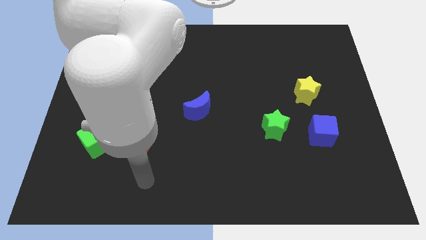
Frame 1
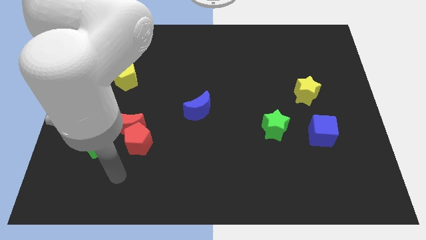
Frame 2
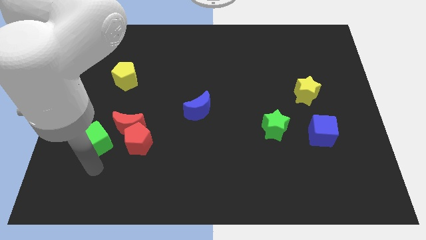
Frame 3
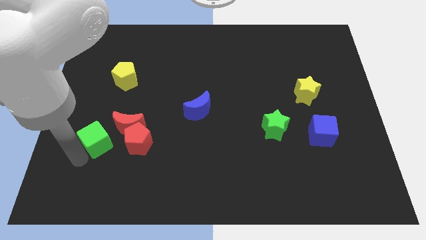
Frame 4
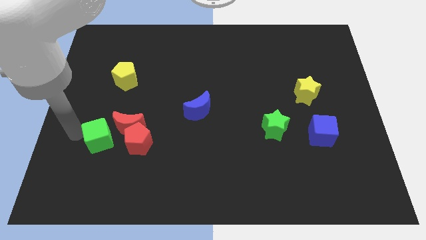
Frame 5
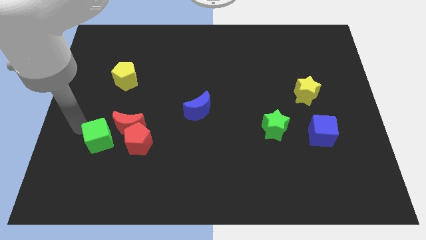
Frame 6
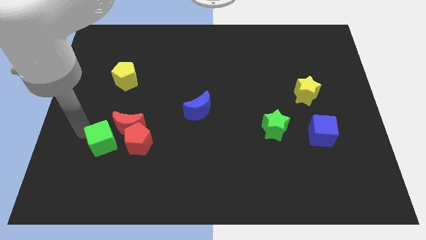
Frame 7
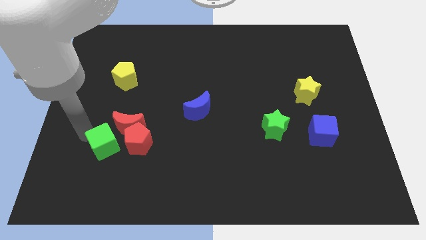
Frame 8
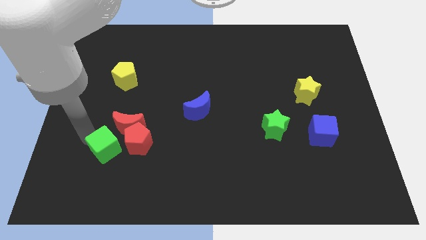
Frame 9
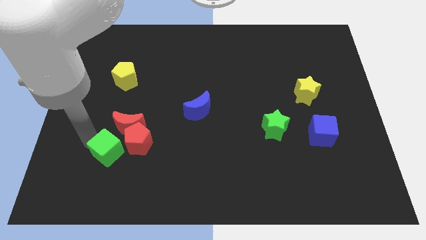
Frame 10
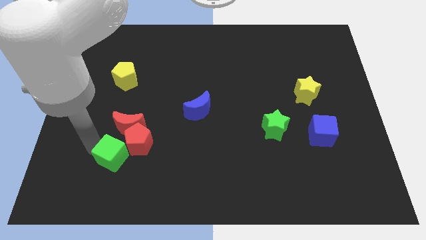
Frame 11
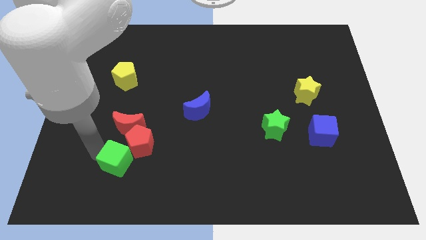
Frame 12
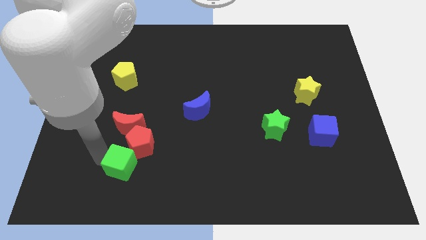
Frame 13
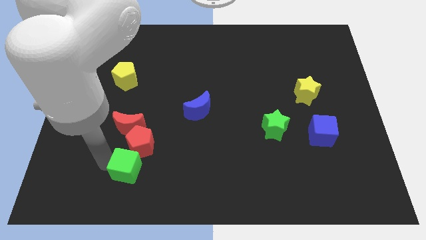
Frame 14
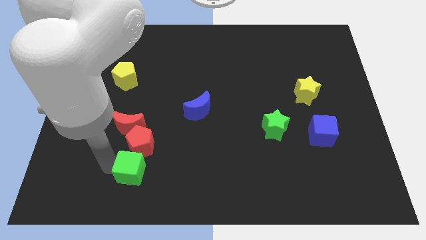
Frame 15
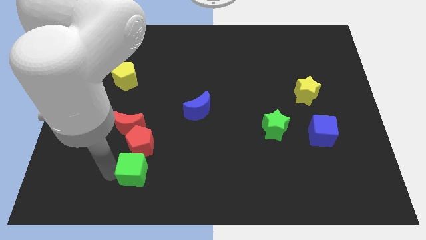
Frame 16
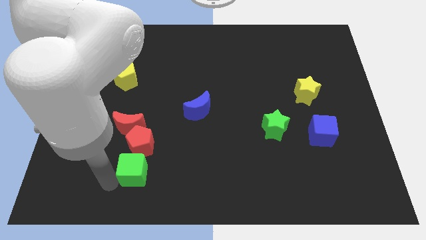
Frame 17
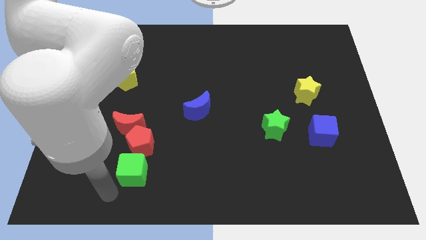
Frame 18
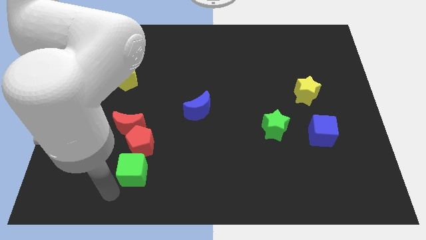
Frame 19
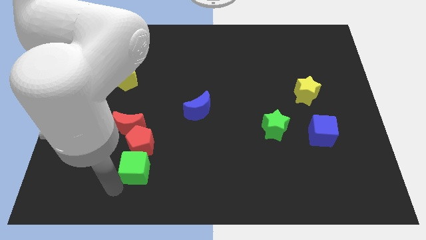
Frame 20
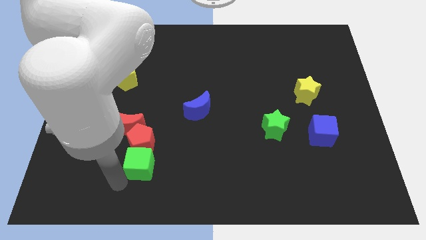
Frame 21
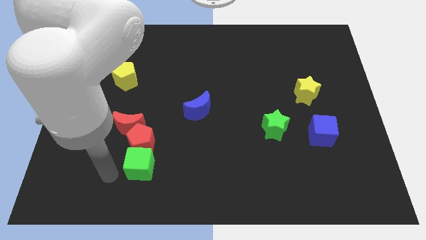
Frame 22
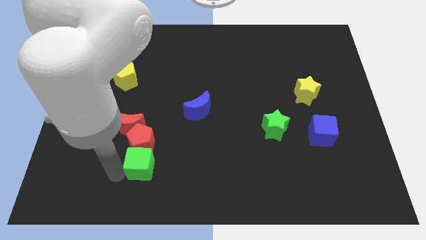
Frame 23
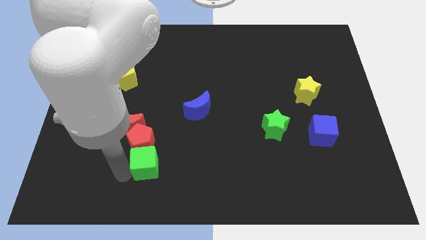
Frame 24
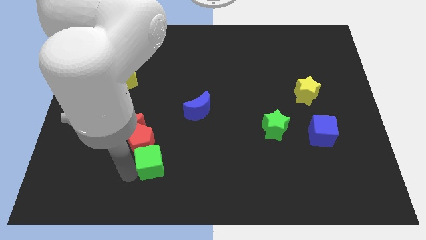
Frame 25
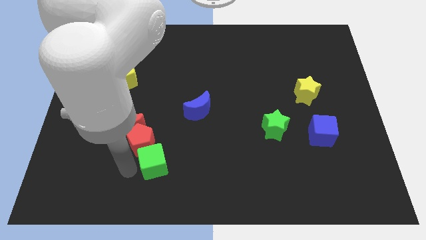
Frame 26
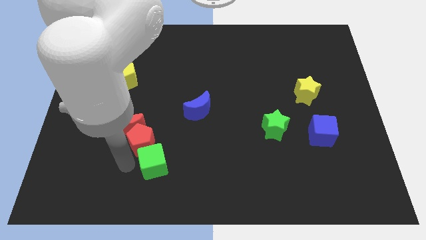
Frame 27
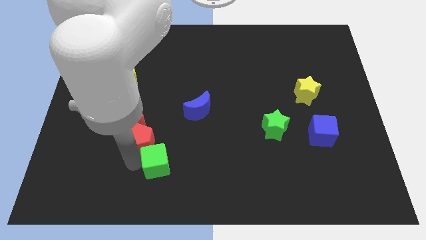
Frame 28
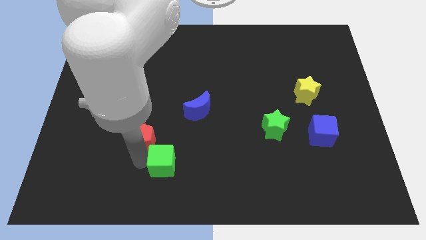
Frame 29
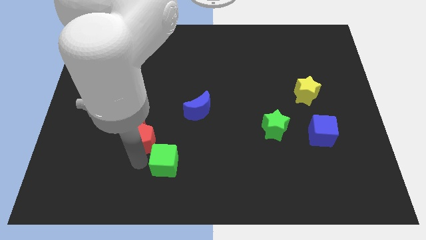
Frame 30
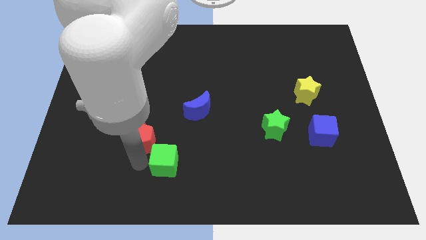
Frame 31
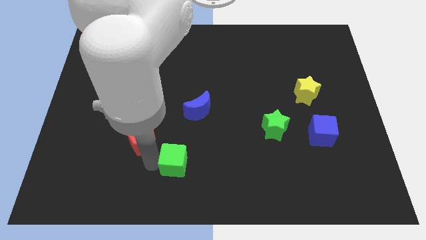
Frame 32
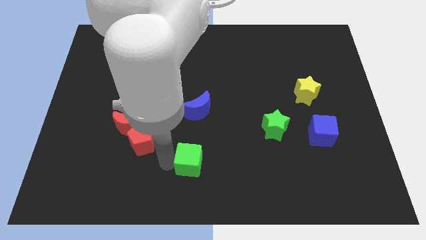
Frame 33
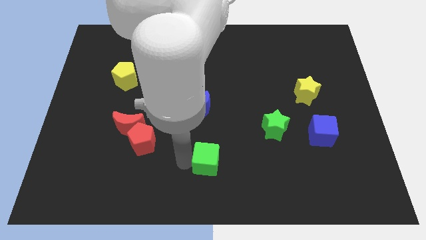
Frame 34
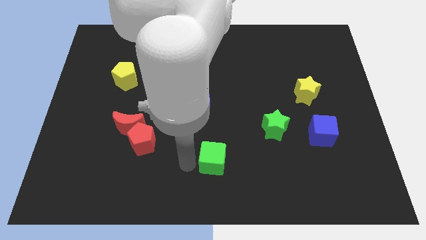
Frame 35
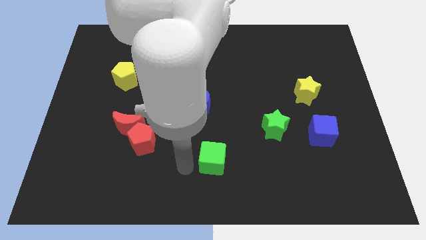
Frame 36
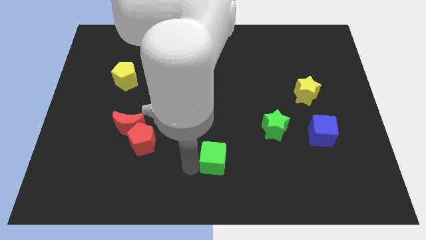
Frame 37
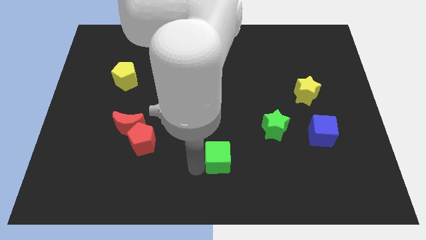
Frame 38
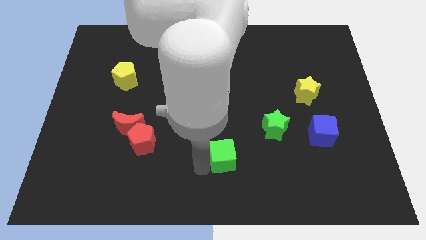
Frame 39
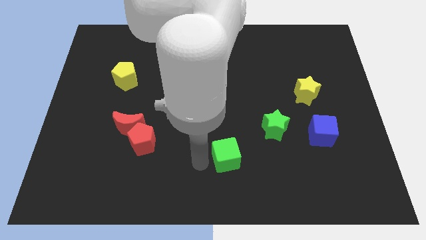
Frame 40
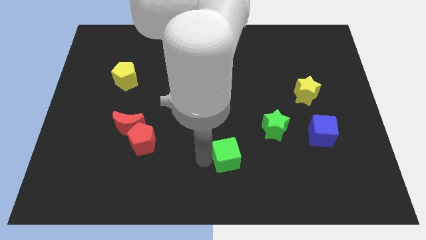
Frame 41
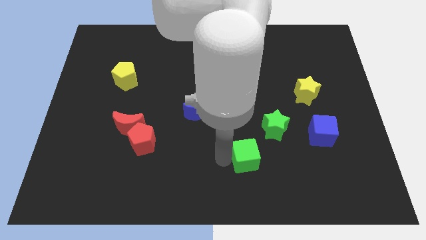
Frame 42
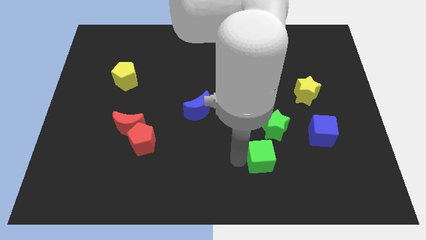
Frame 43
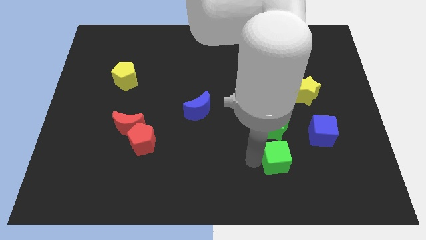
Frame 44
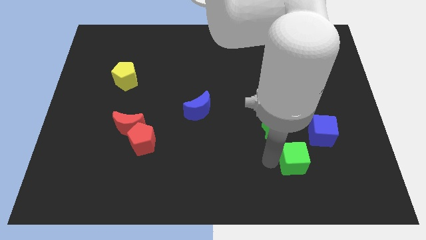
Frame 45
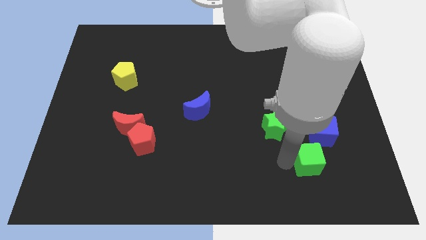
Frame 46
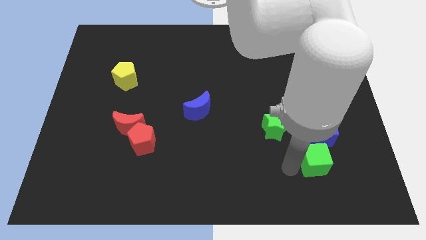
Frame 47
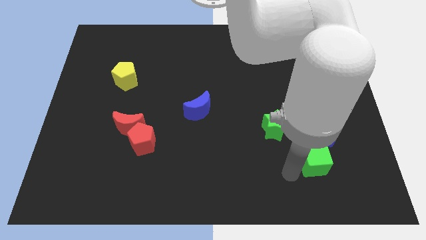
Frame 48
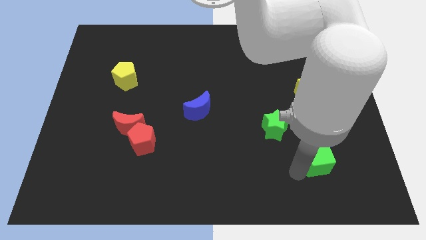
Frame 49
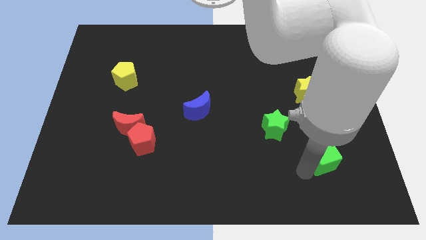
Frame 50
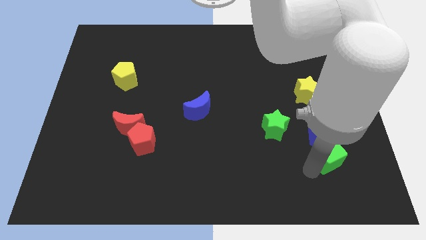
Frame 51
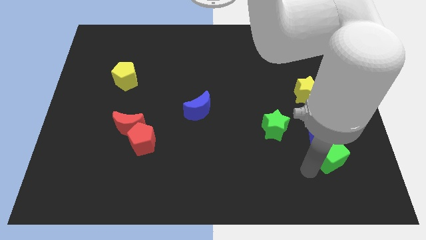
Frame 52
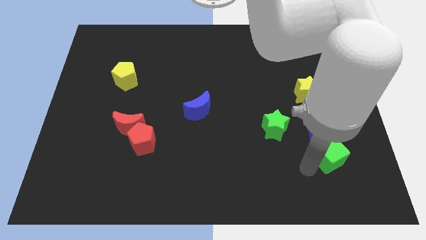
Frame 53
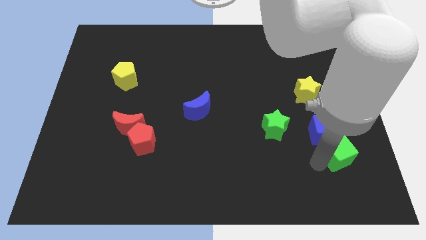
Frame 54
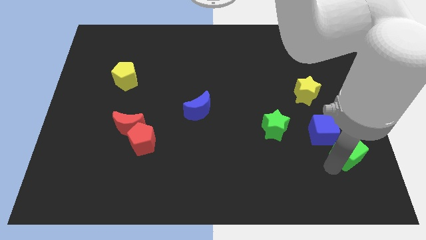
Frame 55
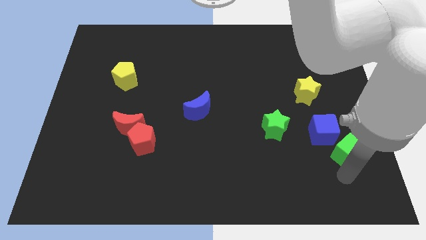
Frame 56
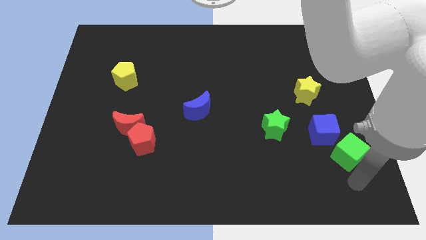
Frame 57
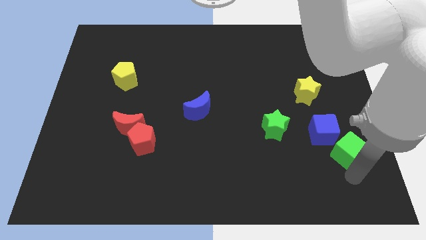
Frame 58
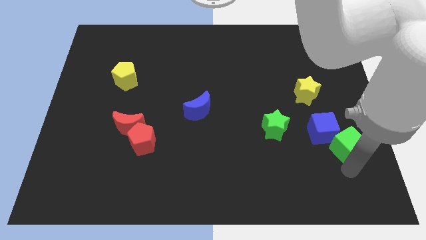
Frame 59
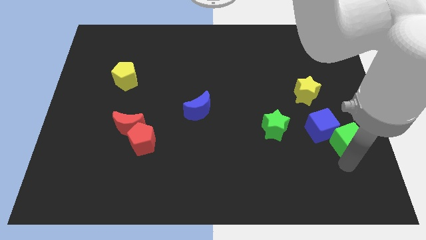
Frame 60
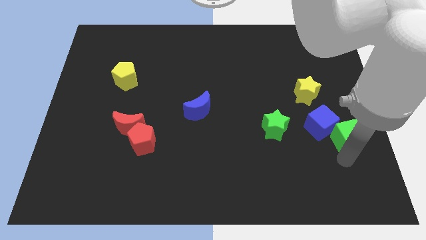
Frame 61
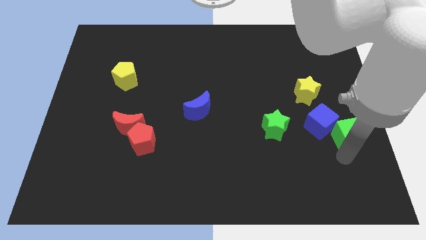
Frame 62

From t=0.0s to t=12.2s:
slide the green cube right of the green star
